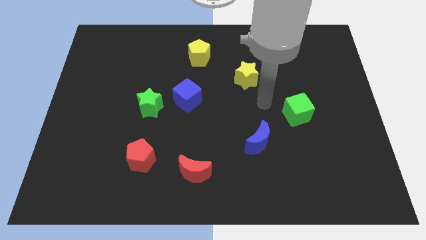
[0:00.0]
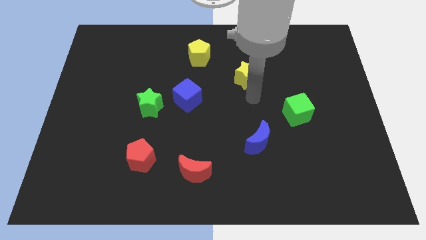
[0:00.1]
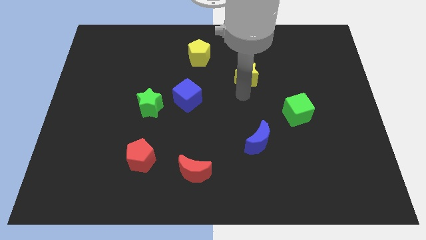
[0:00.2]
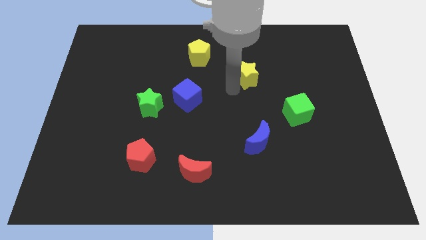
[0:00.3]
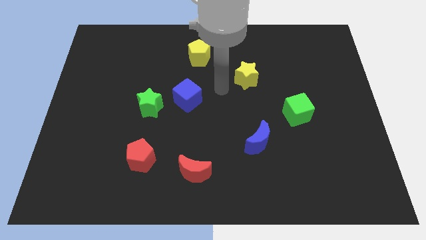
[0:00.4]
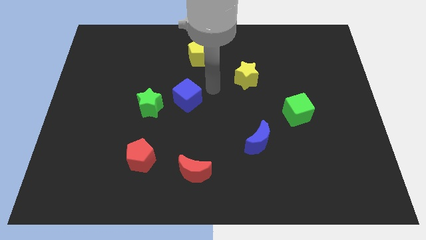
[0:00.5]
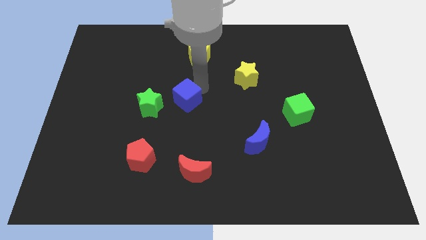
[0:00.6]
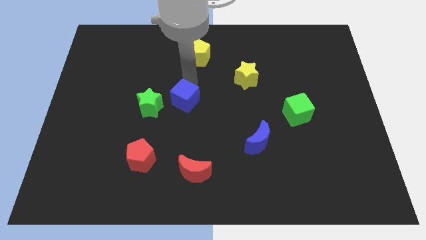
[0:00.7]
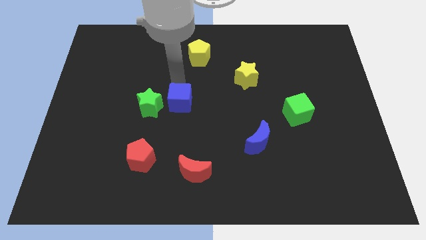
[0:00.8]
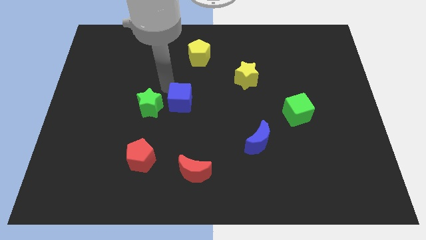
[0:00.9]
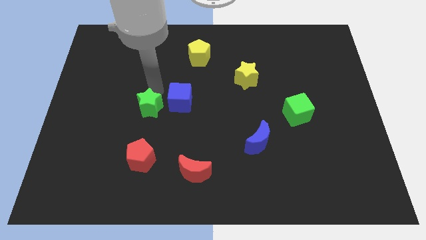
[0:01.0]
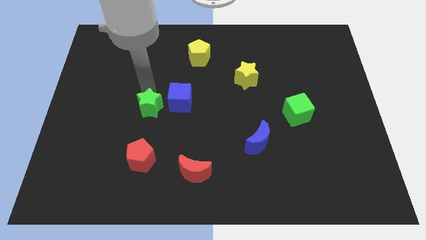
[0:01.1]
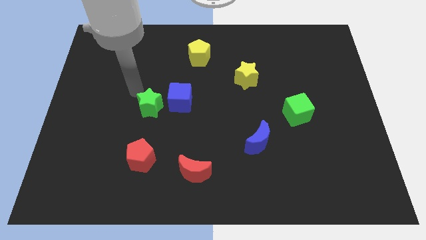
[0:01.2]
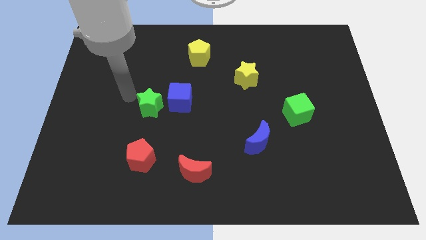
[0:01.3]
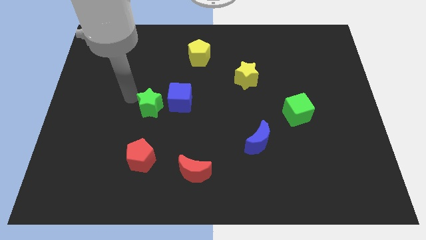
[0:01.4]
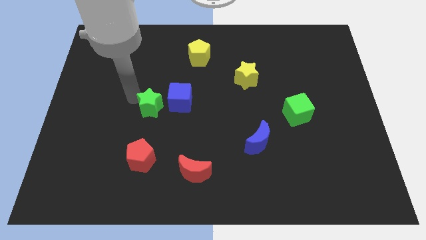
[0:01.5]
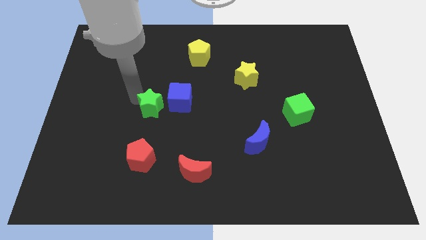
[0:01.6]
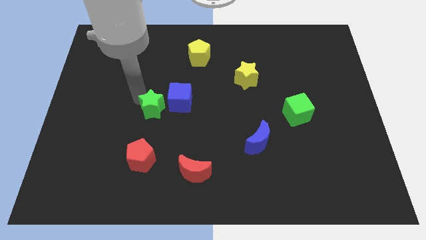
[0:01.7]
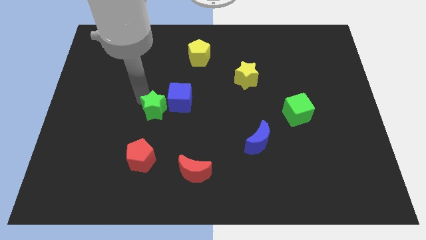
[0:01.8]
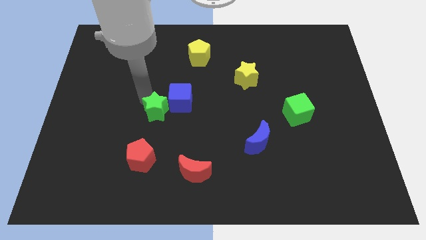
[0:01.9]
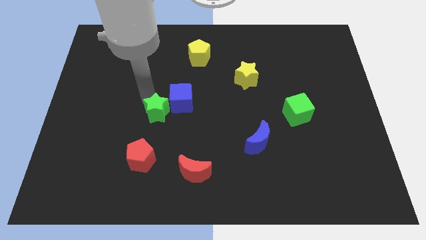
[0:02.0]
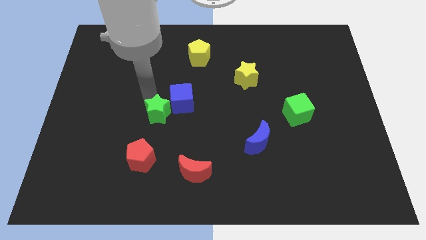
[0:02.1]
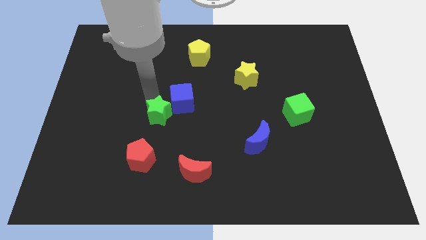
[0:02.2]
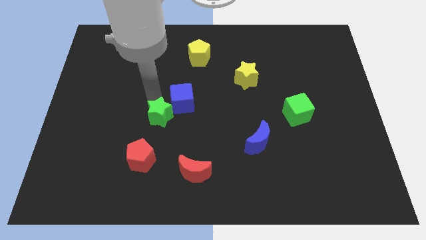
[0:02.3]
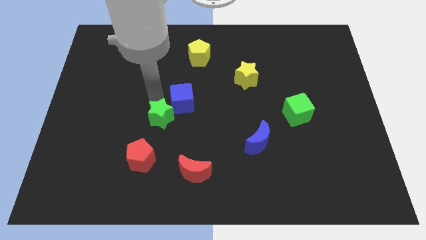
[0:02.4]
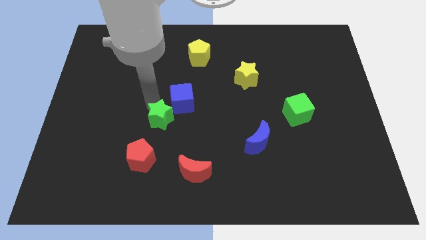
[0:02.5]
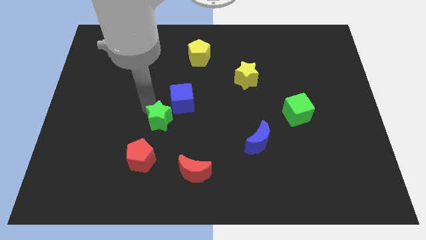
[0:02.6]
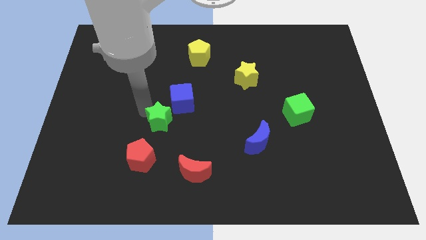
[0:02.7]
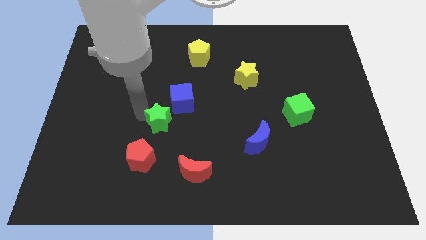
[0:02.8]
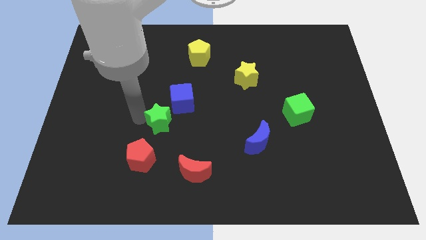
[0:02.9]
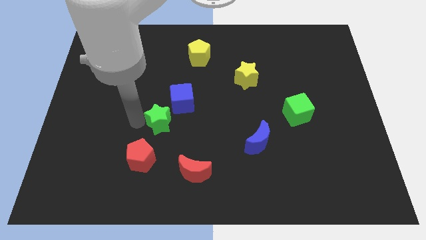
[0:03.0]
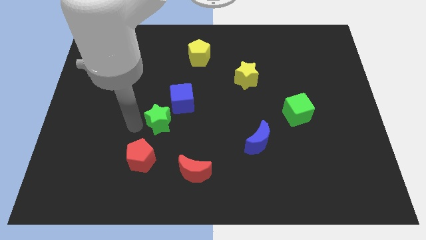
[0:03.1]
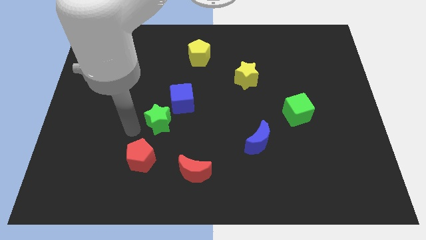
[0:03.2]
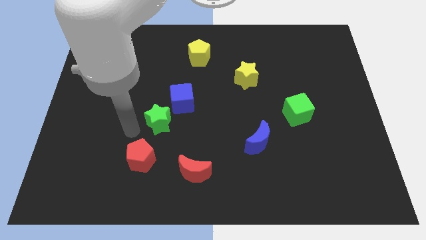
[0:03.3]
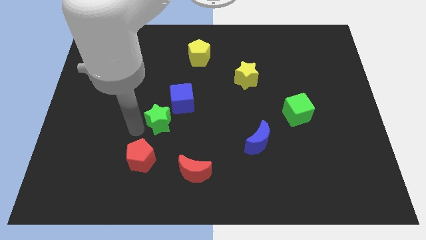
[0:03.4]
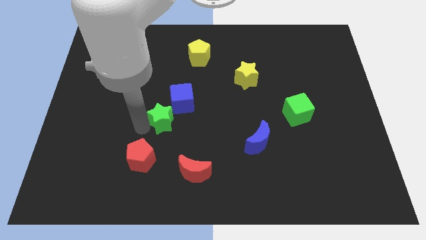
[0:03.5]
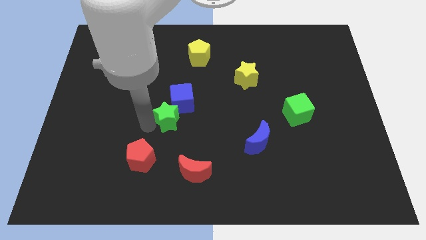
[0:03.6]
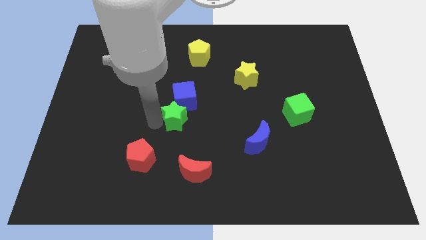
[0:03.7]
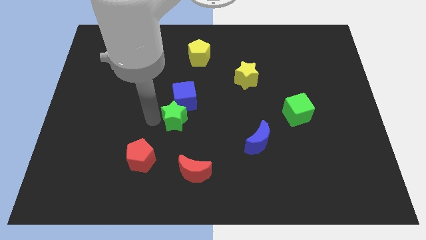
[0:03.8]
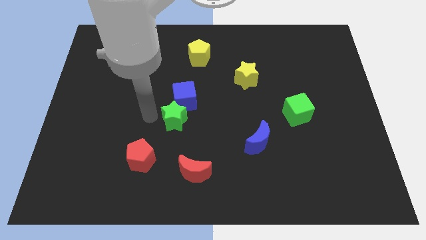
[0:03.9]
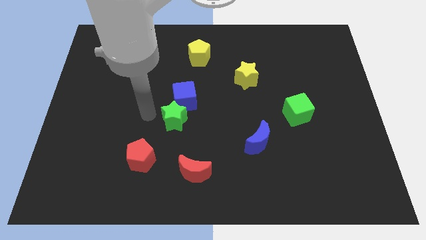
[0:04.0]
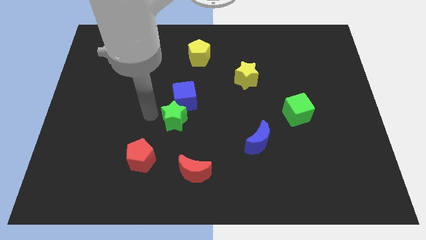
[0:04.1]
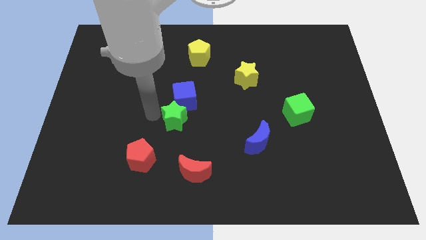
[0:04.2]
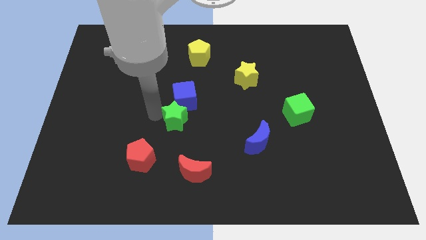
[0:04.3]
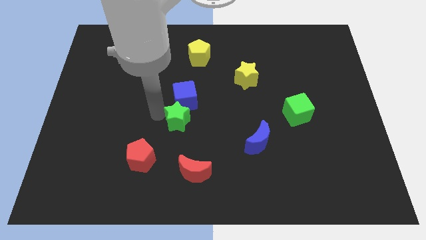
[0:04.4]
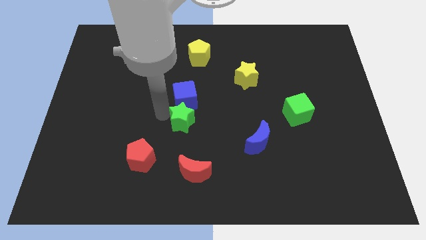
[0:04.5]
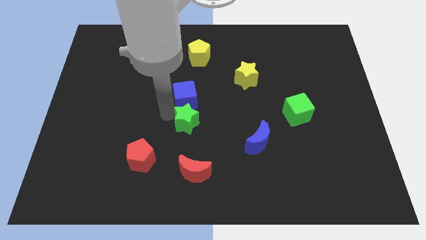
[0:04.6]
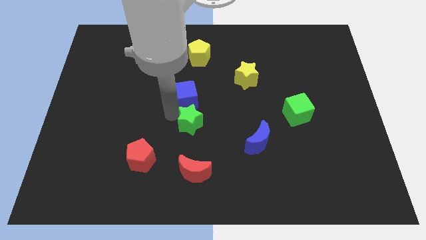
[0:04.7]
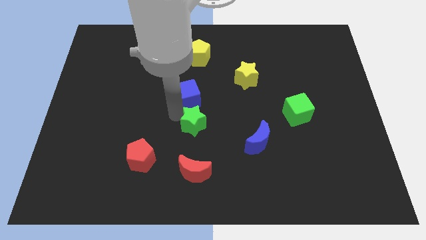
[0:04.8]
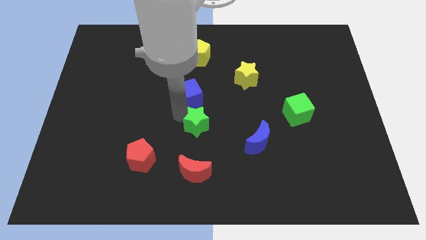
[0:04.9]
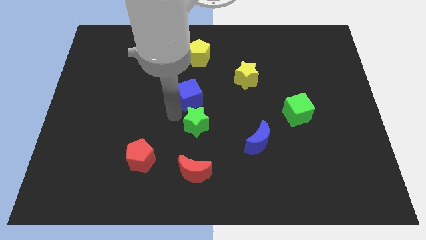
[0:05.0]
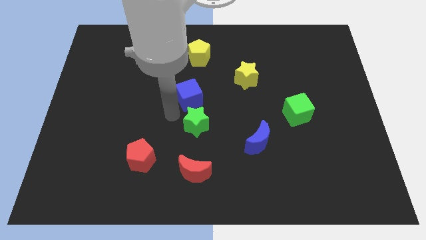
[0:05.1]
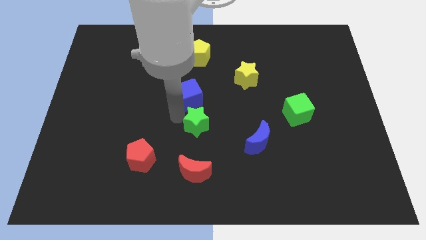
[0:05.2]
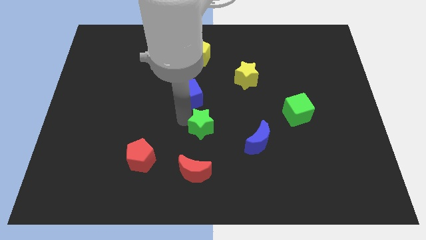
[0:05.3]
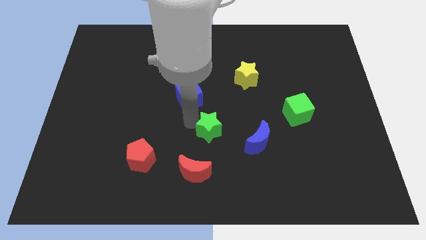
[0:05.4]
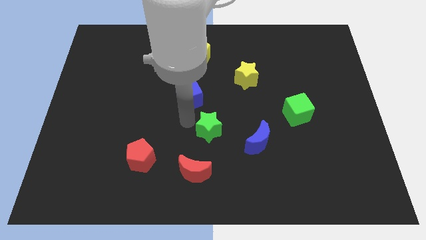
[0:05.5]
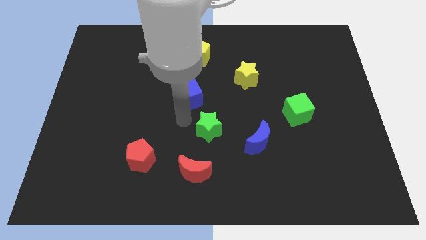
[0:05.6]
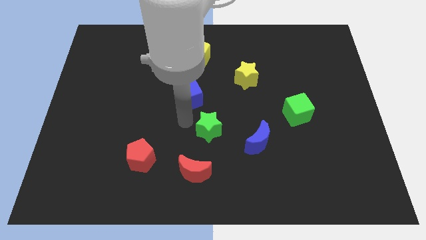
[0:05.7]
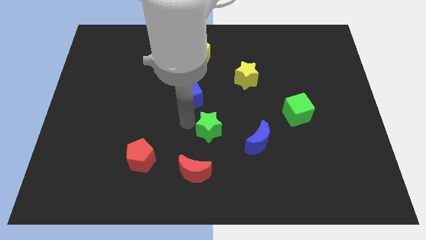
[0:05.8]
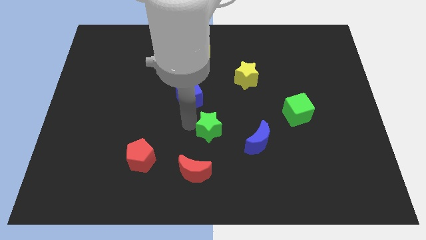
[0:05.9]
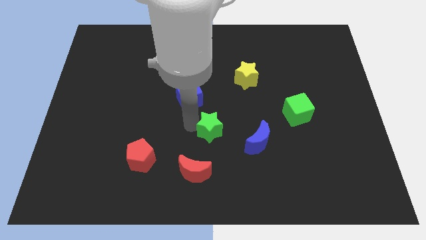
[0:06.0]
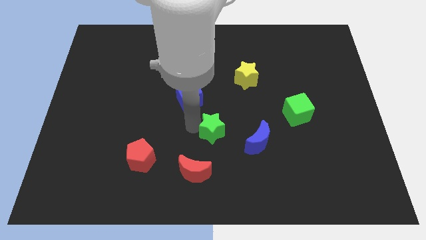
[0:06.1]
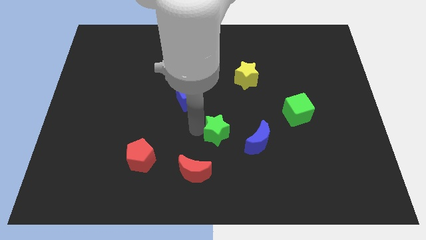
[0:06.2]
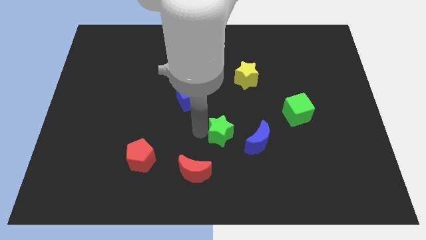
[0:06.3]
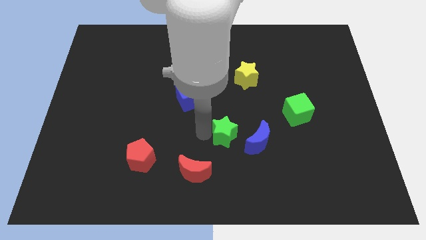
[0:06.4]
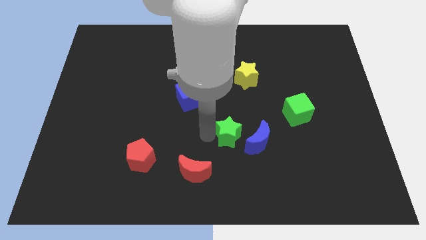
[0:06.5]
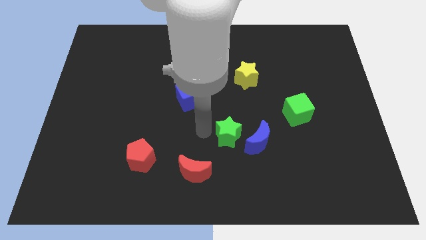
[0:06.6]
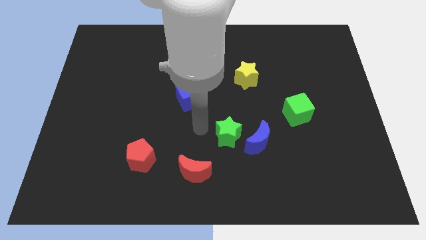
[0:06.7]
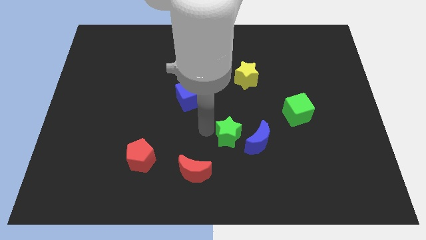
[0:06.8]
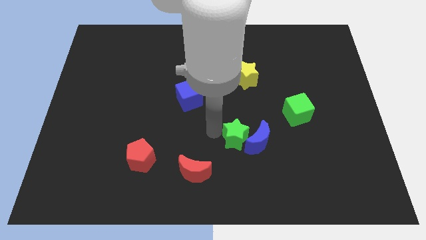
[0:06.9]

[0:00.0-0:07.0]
slide the green star to the blue moon
